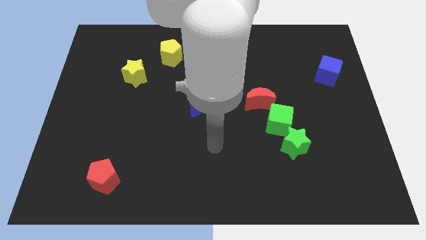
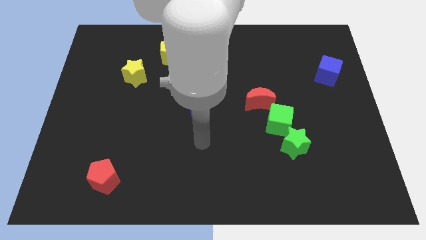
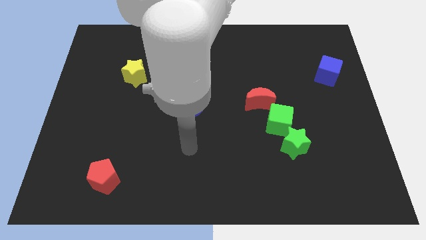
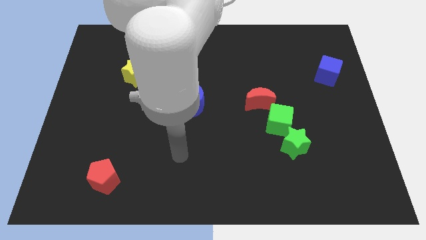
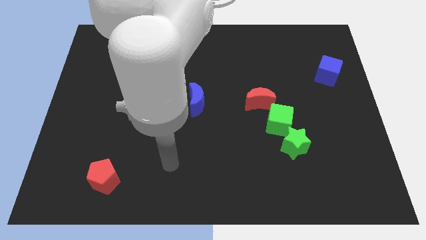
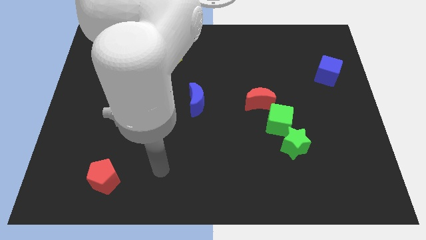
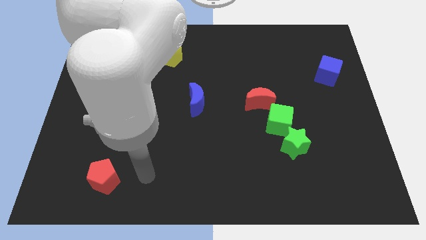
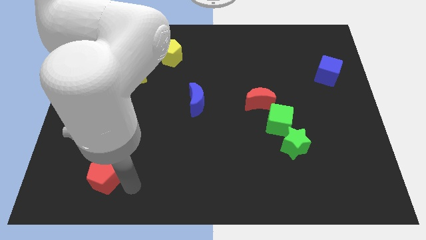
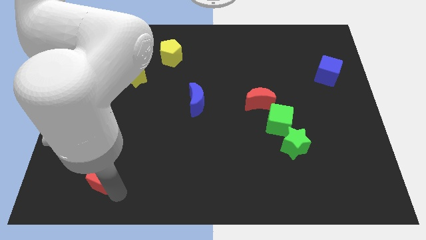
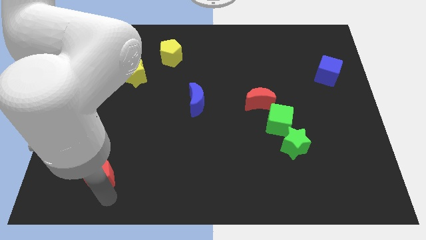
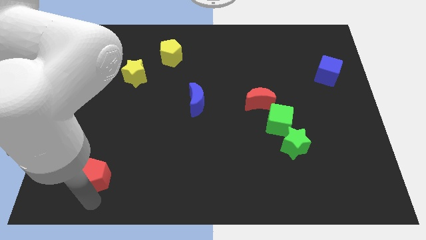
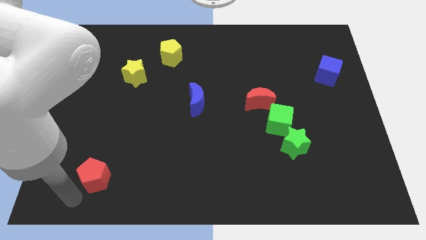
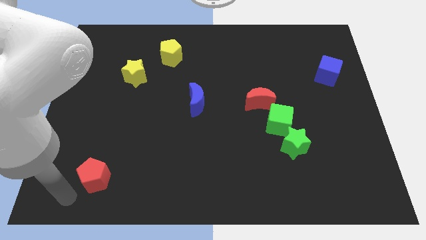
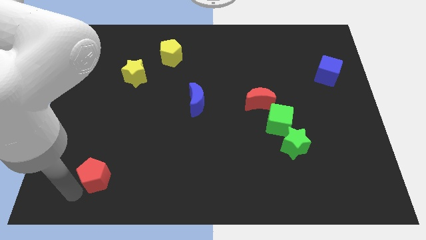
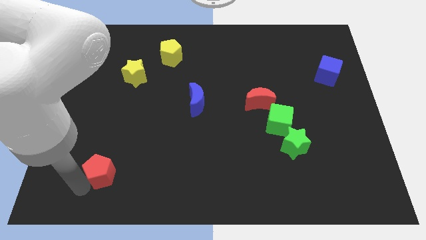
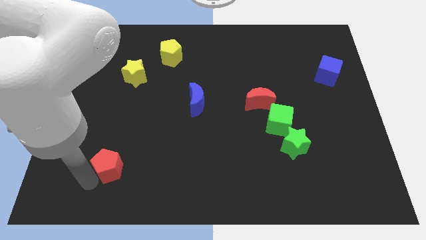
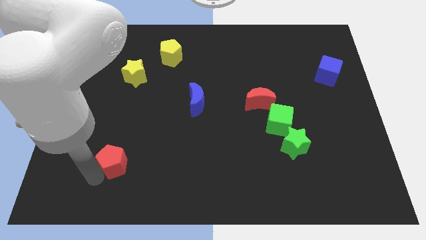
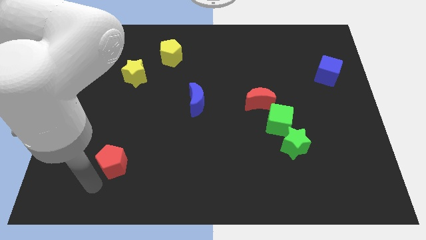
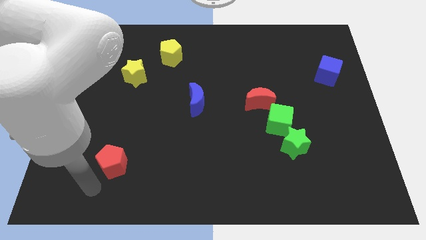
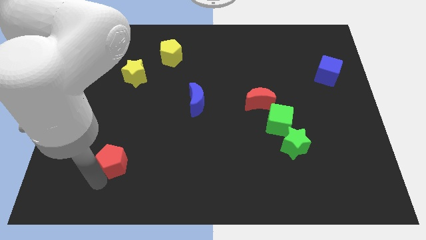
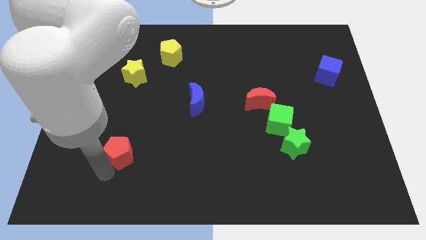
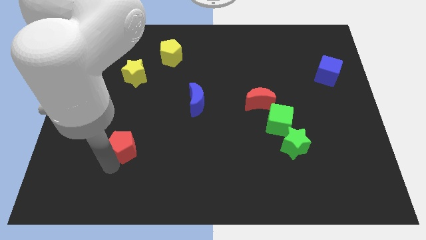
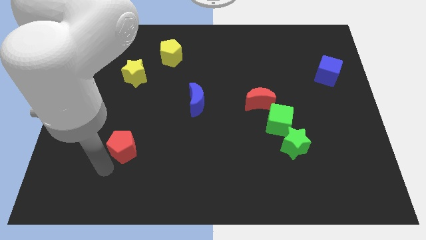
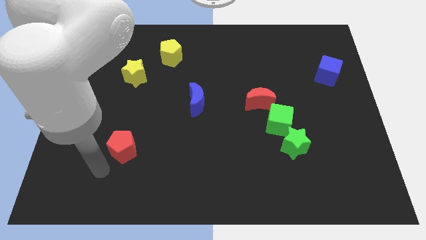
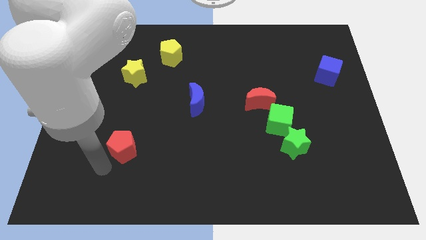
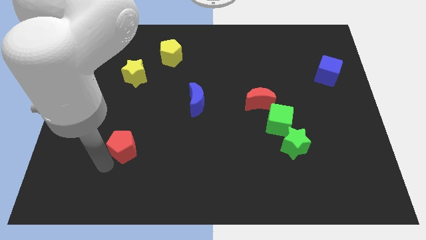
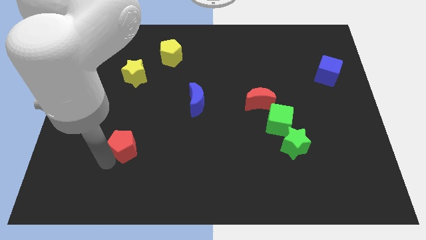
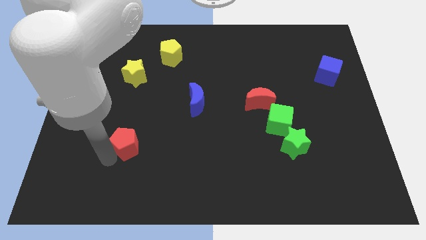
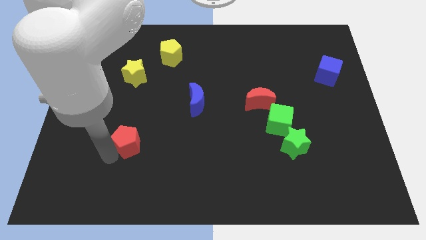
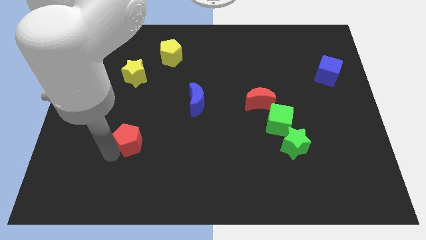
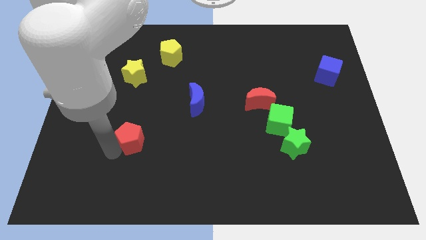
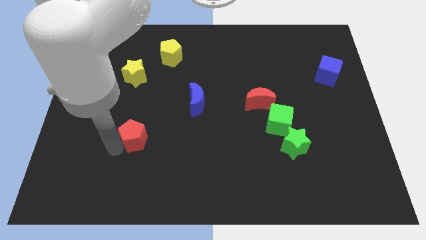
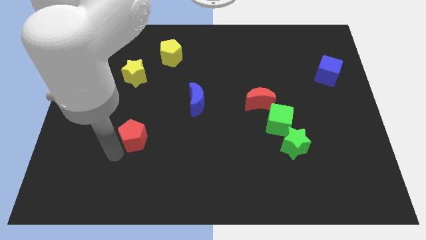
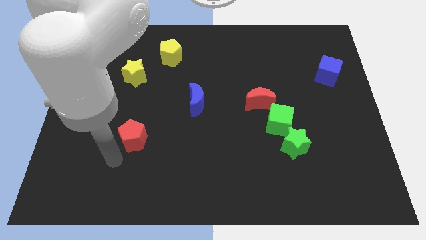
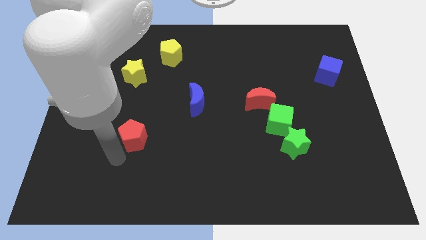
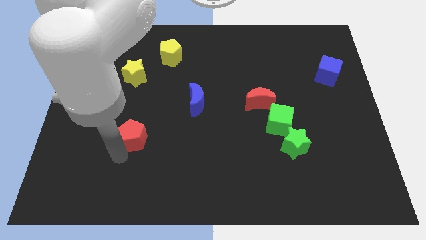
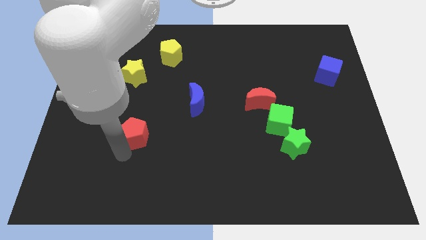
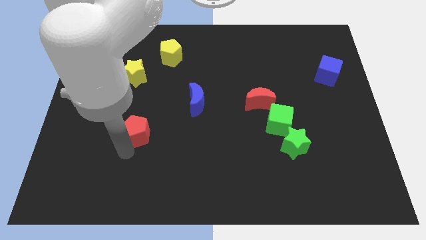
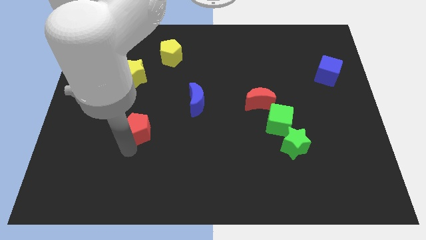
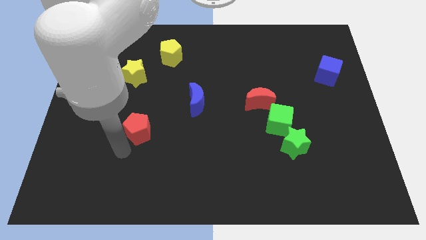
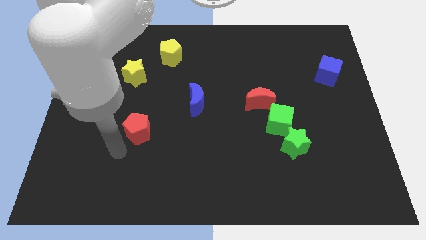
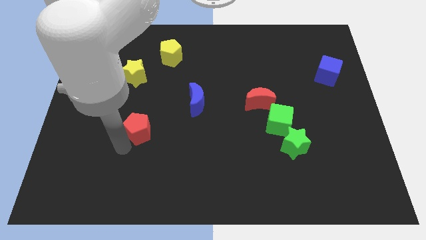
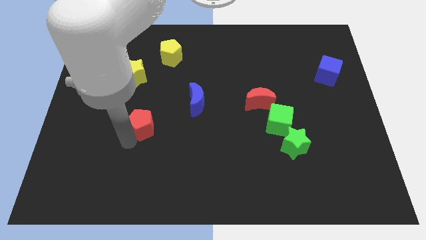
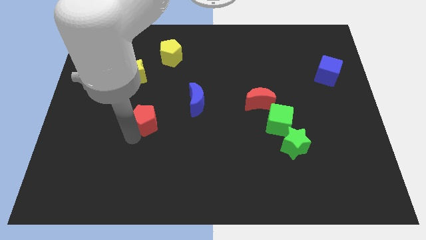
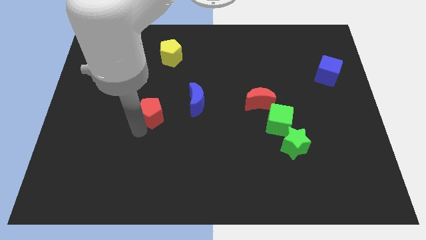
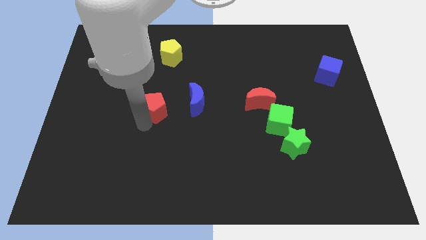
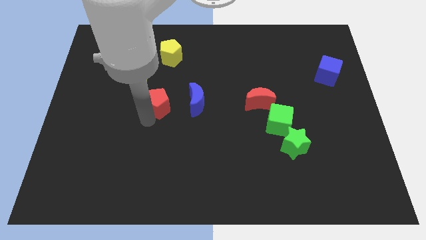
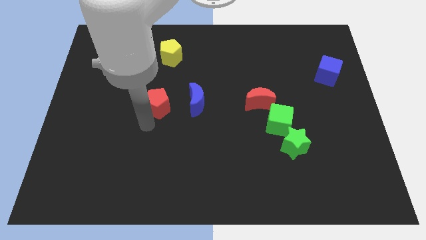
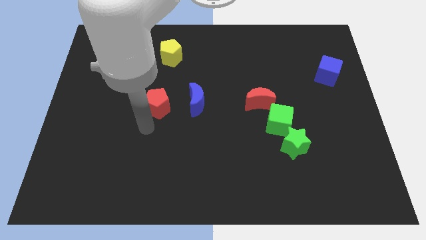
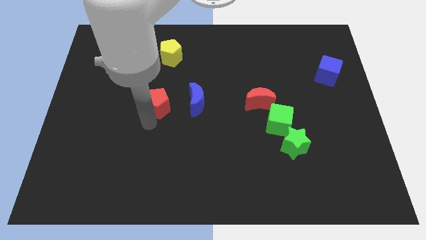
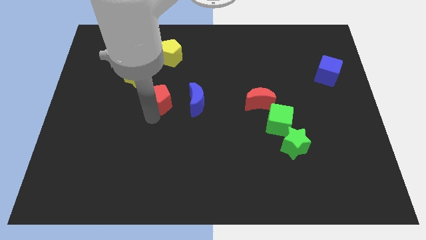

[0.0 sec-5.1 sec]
slide the red pentagon to the bottom side of the yellow pentagon

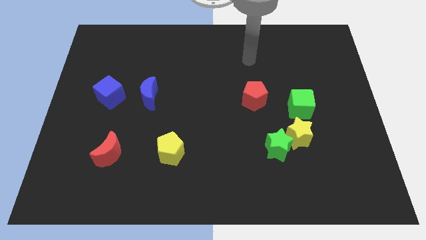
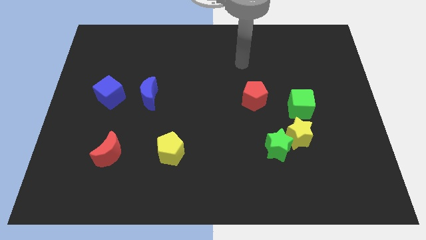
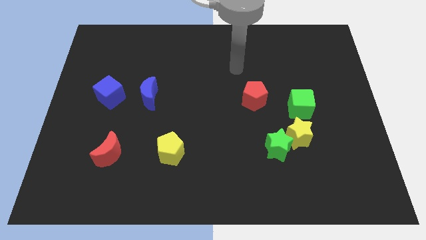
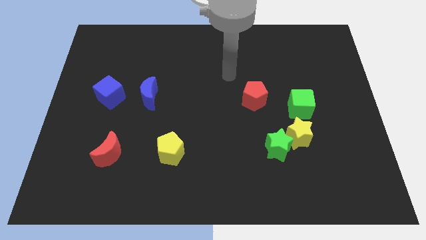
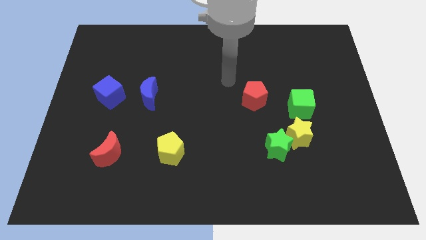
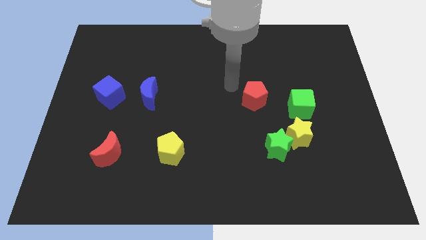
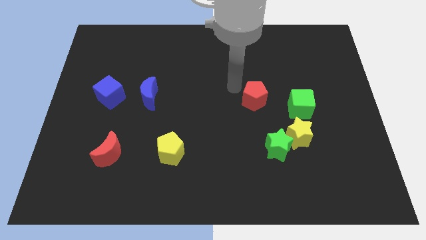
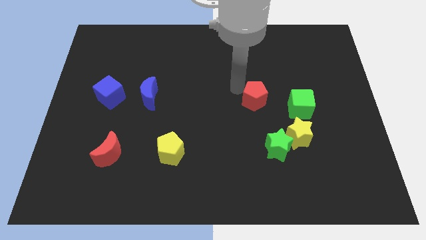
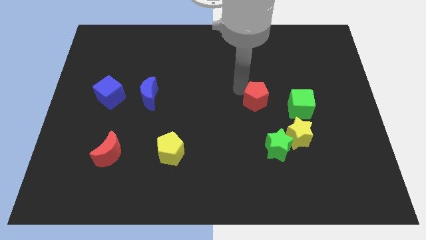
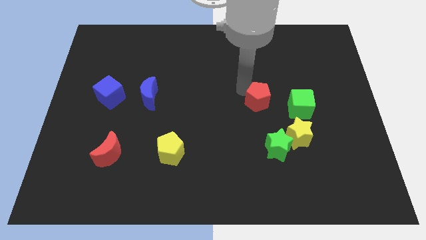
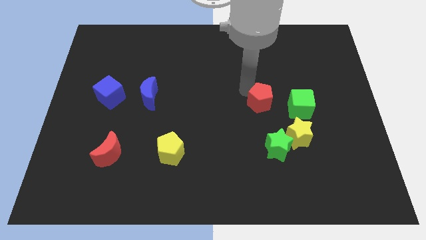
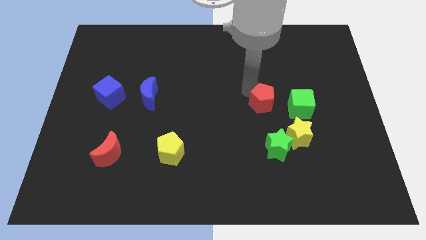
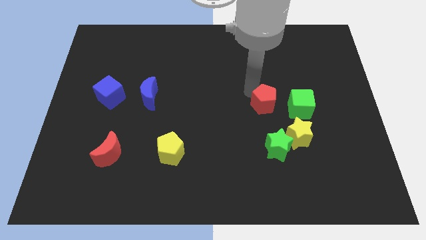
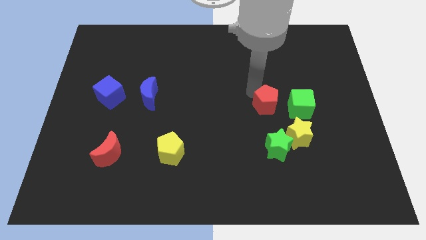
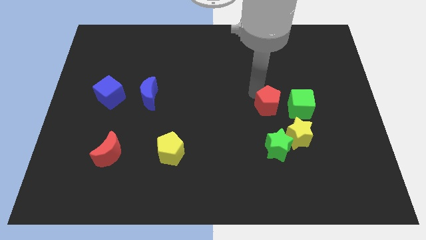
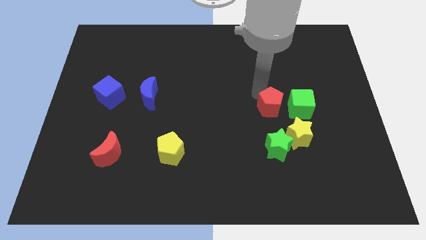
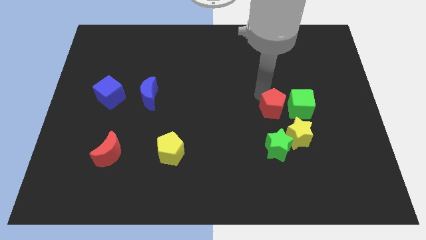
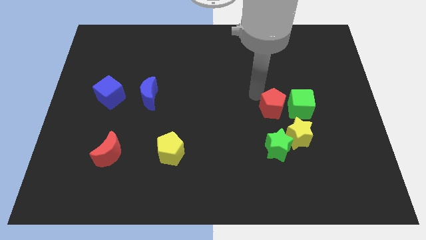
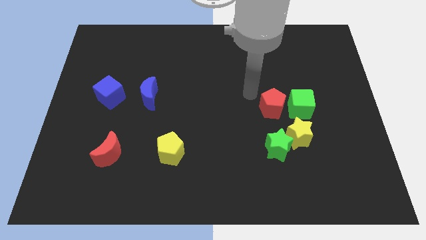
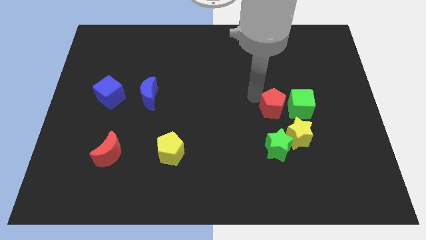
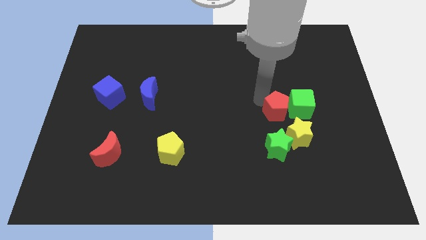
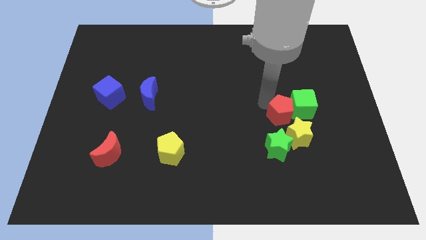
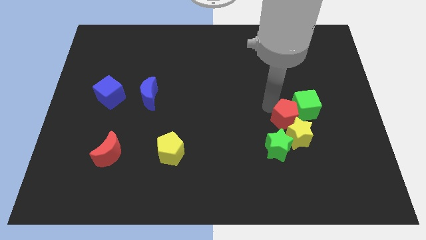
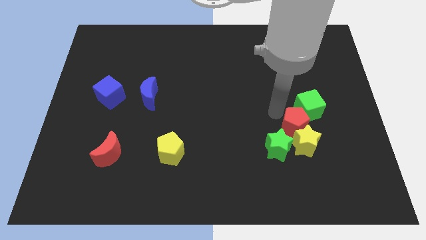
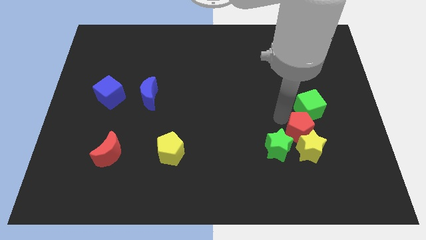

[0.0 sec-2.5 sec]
put the red pentagon to the right of the green star
